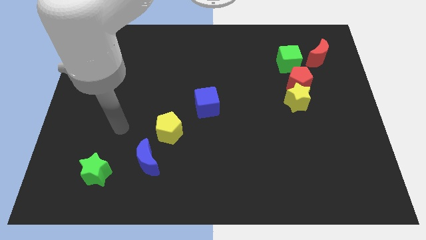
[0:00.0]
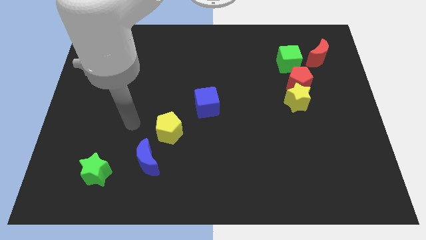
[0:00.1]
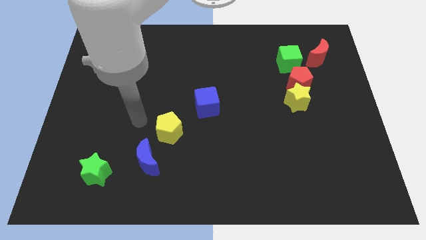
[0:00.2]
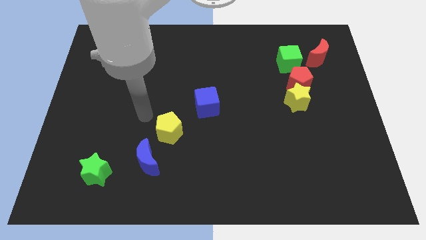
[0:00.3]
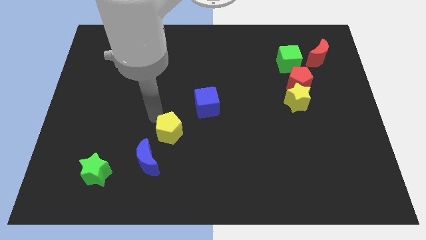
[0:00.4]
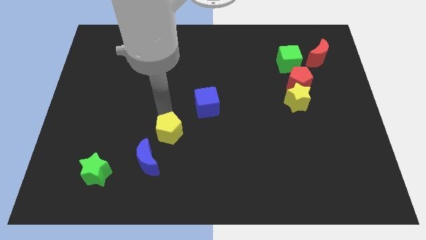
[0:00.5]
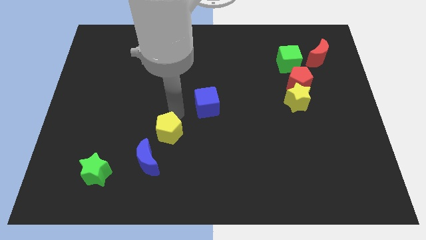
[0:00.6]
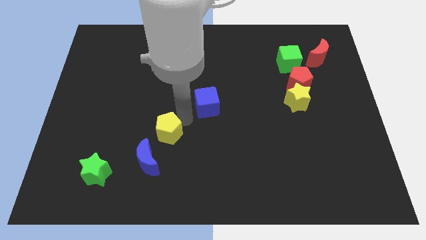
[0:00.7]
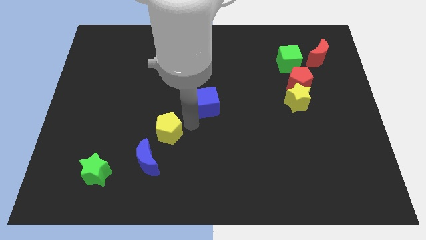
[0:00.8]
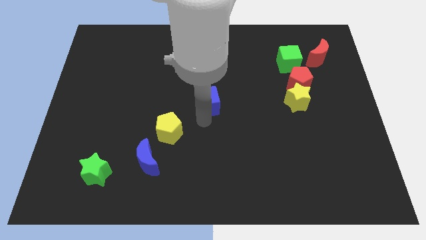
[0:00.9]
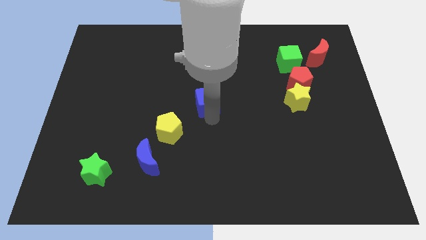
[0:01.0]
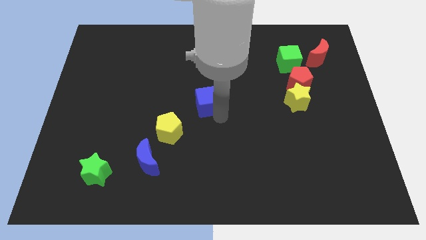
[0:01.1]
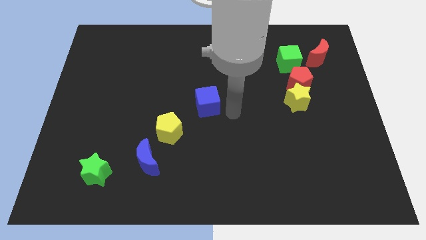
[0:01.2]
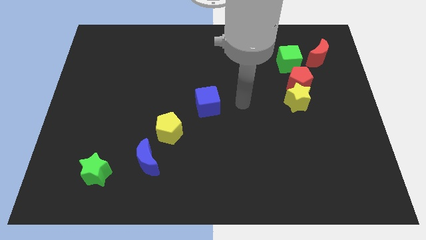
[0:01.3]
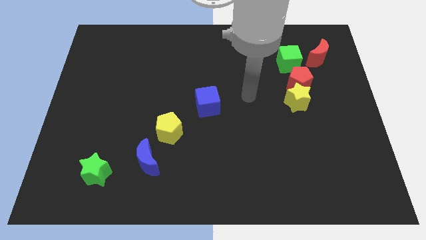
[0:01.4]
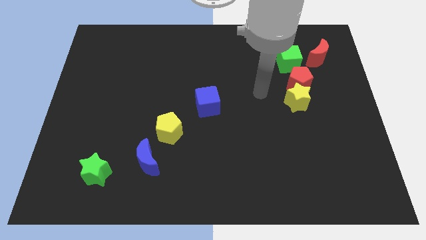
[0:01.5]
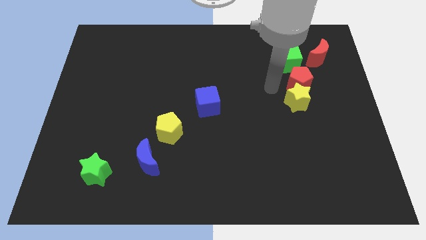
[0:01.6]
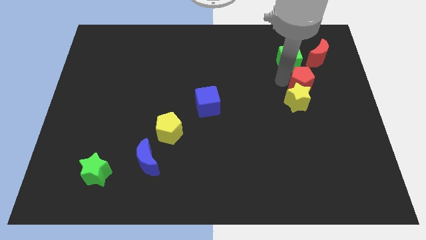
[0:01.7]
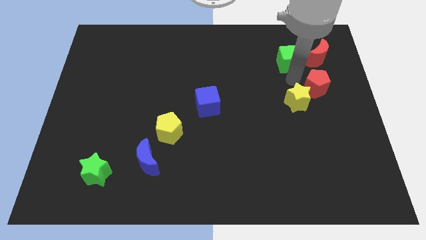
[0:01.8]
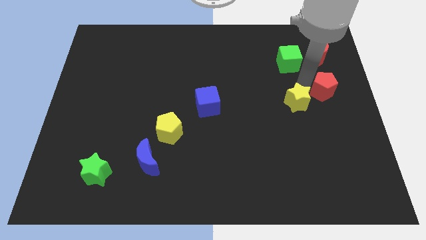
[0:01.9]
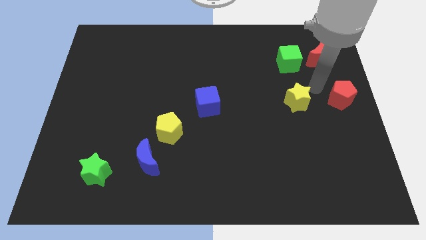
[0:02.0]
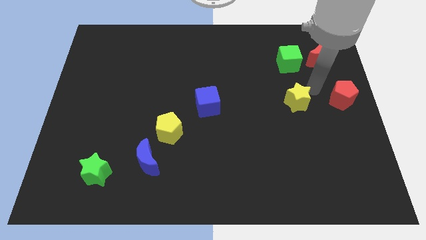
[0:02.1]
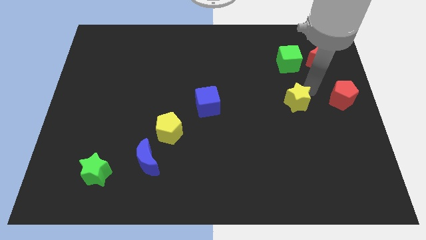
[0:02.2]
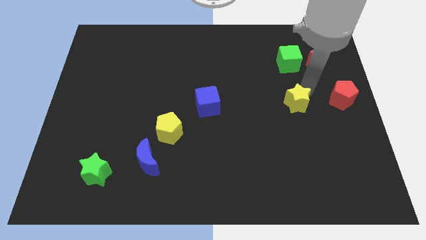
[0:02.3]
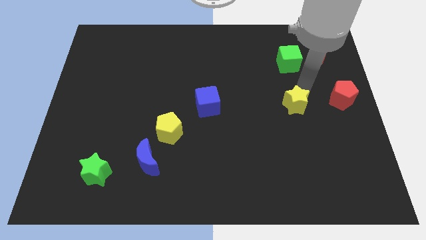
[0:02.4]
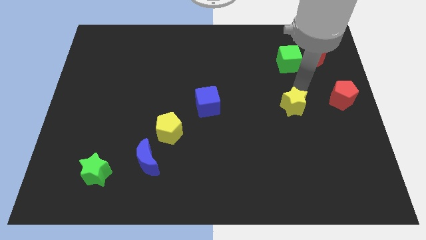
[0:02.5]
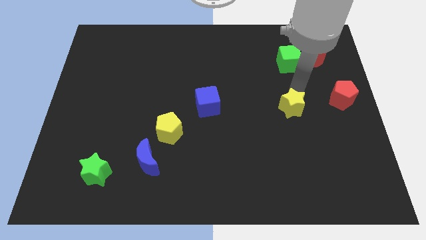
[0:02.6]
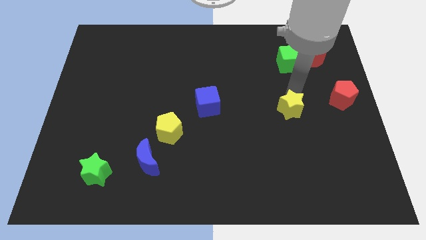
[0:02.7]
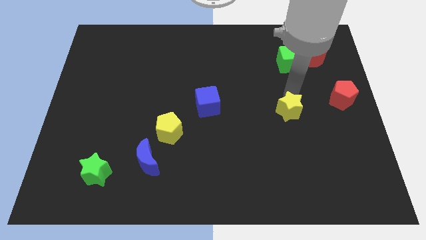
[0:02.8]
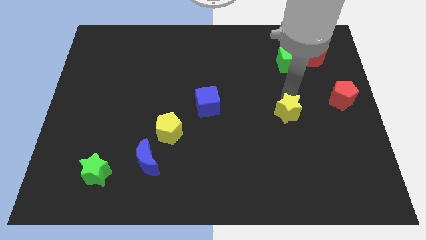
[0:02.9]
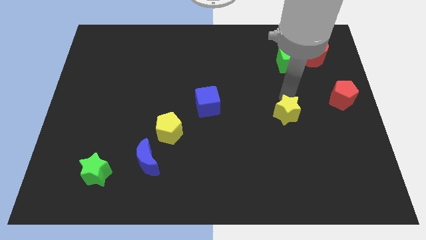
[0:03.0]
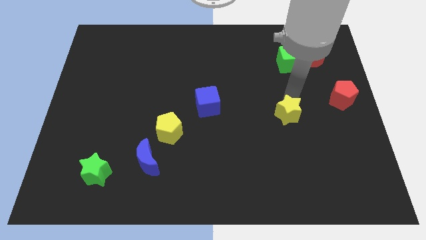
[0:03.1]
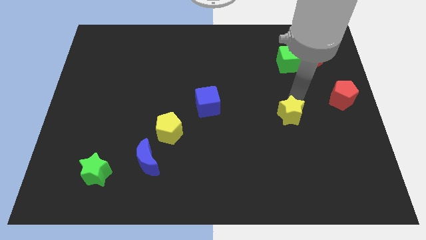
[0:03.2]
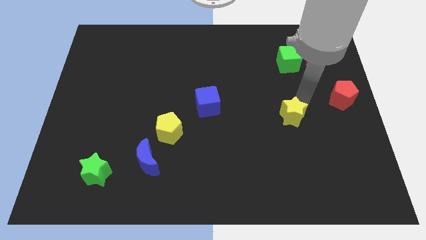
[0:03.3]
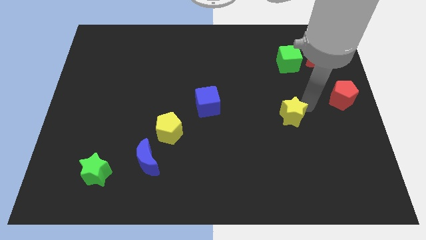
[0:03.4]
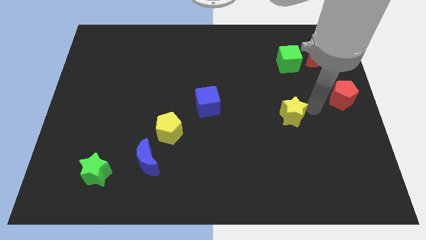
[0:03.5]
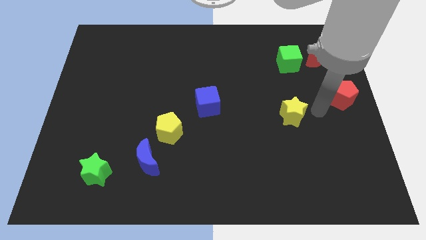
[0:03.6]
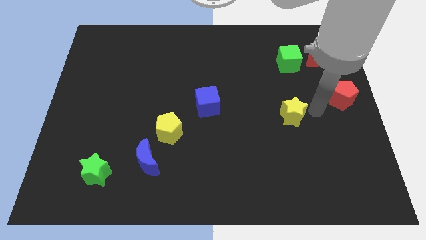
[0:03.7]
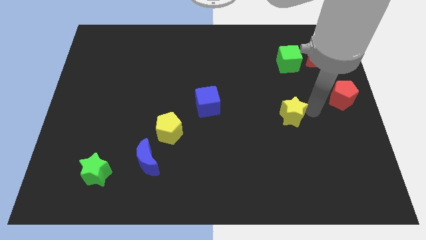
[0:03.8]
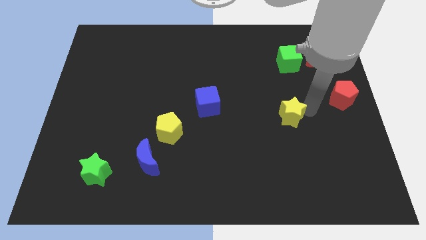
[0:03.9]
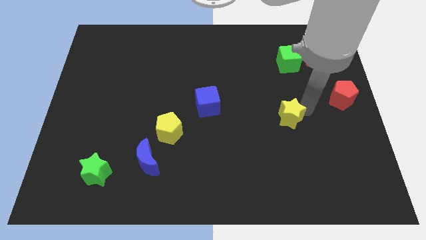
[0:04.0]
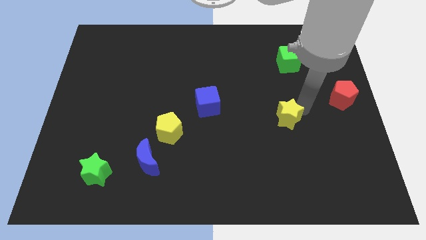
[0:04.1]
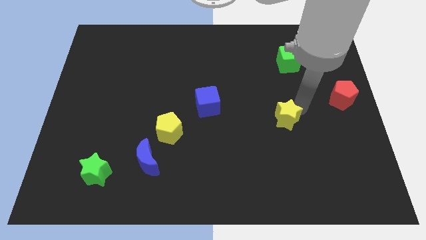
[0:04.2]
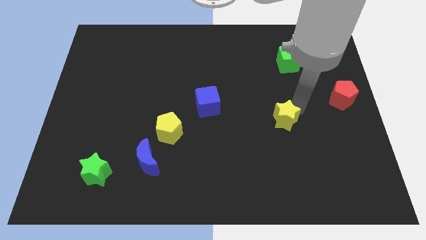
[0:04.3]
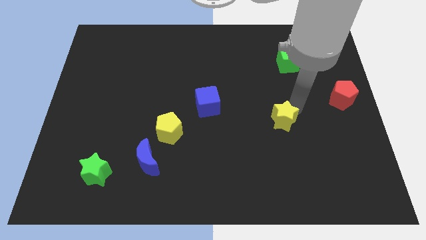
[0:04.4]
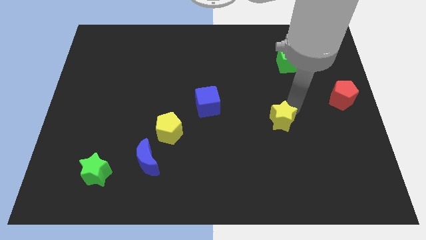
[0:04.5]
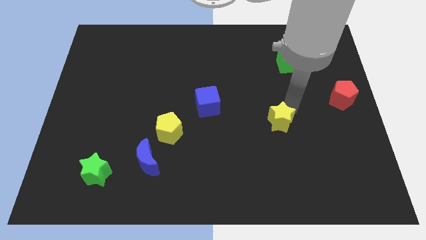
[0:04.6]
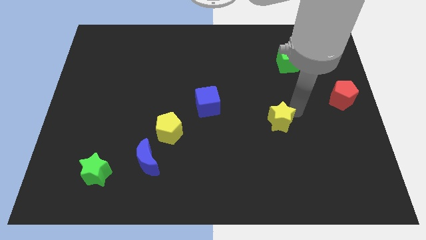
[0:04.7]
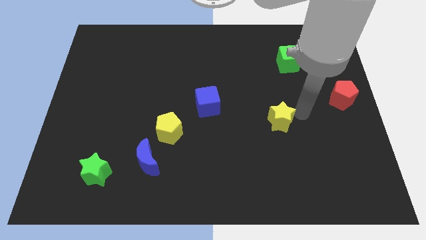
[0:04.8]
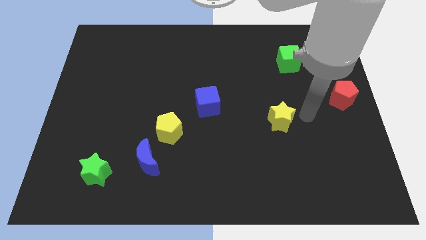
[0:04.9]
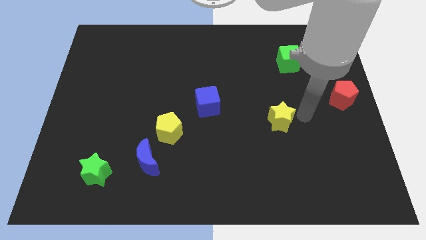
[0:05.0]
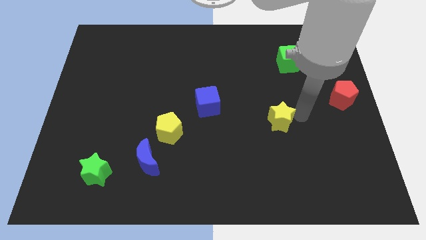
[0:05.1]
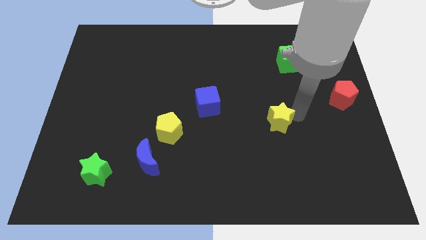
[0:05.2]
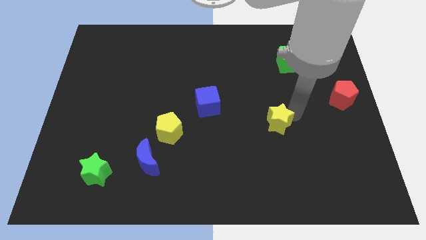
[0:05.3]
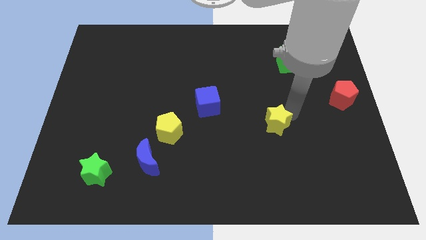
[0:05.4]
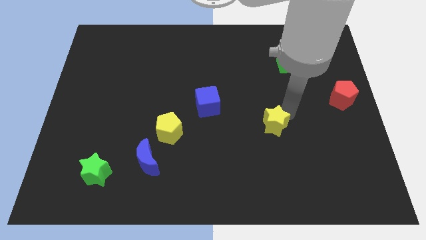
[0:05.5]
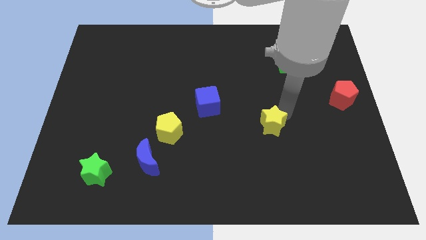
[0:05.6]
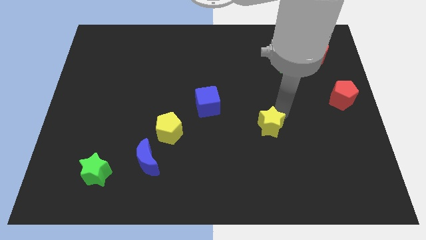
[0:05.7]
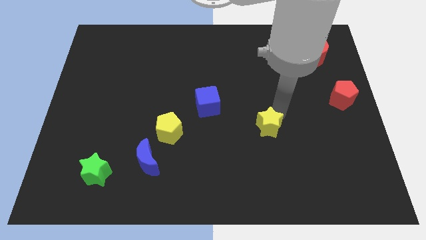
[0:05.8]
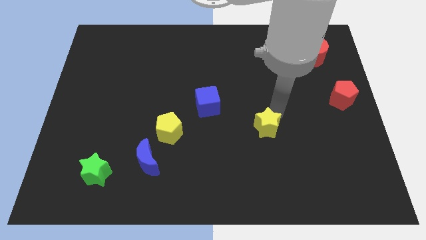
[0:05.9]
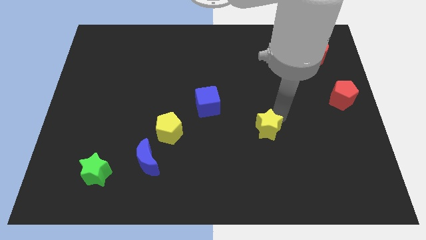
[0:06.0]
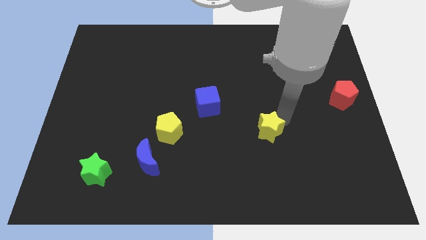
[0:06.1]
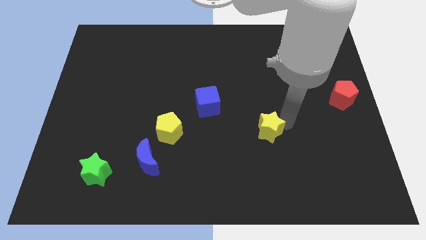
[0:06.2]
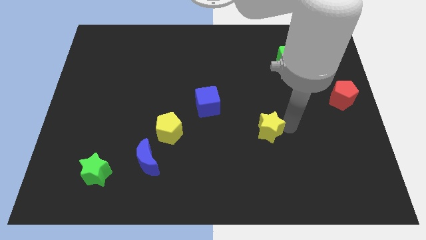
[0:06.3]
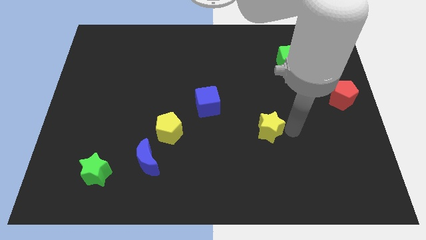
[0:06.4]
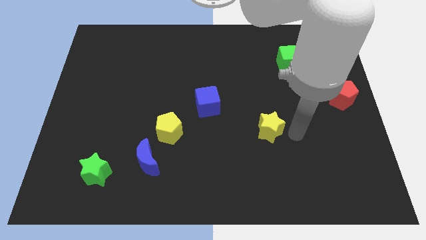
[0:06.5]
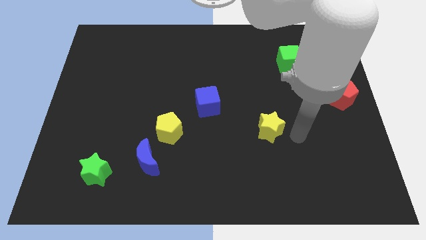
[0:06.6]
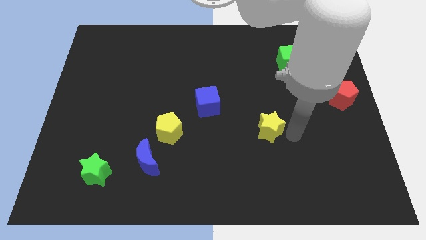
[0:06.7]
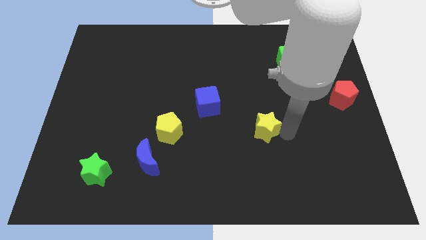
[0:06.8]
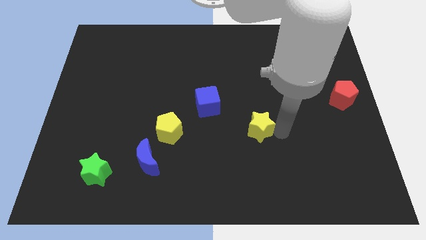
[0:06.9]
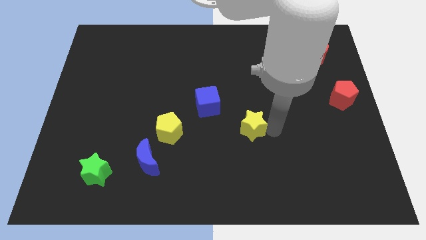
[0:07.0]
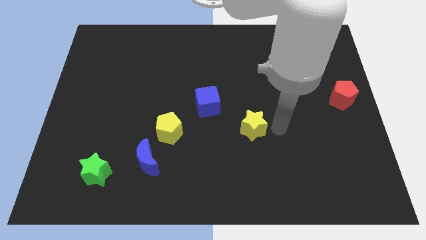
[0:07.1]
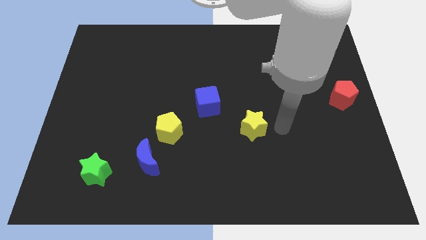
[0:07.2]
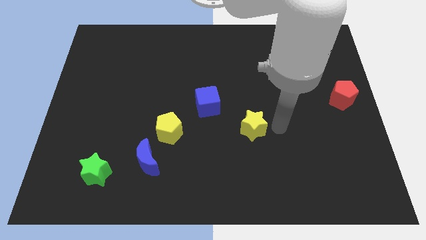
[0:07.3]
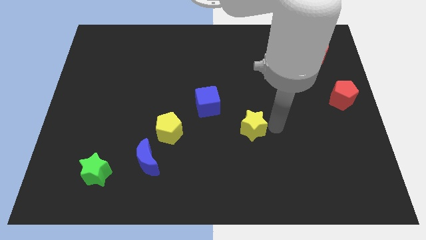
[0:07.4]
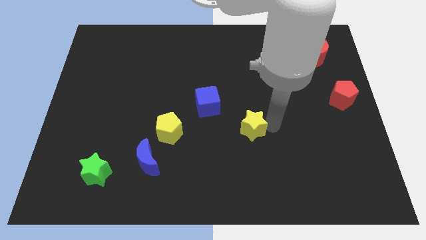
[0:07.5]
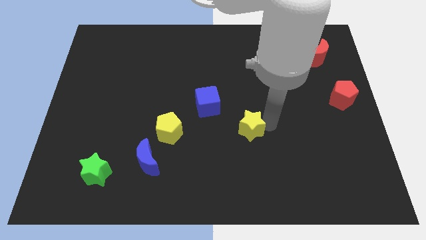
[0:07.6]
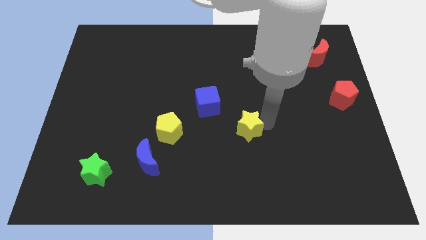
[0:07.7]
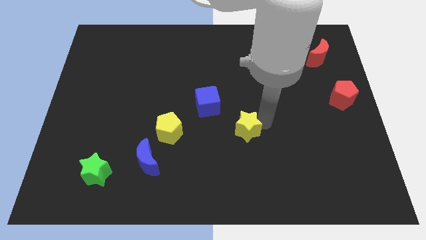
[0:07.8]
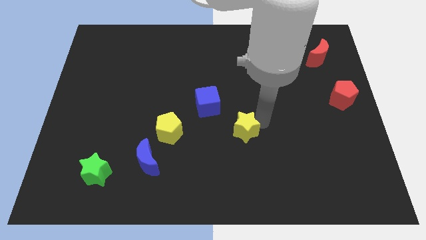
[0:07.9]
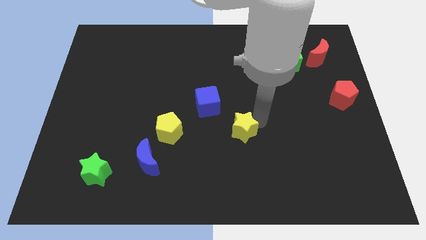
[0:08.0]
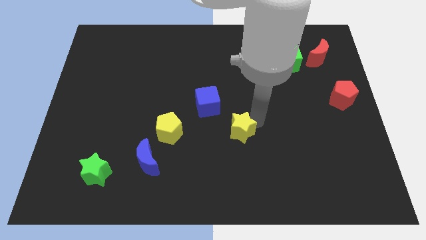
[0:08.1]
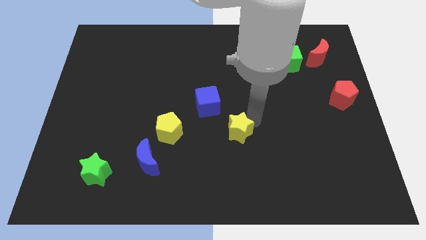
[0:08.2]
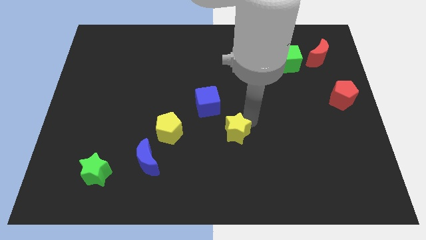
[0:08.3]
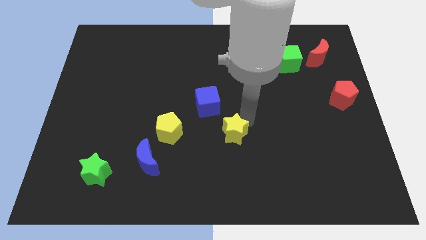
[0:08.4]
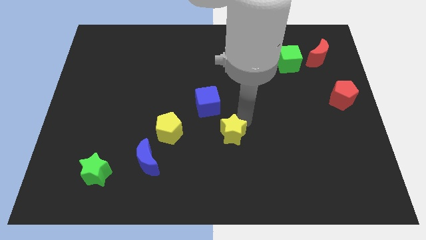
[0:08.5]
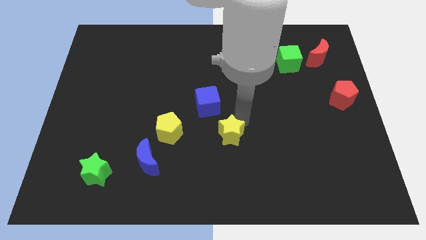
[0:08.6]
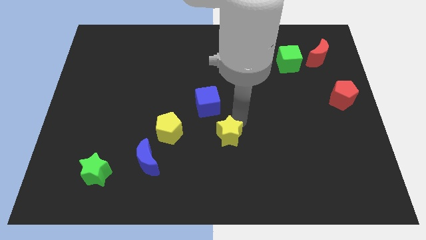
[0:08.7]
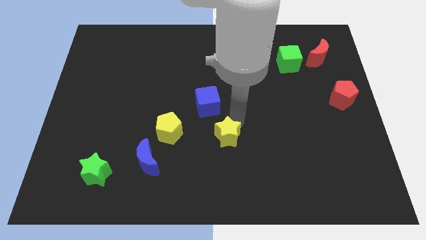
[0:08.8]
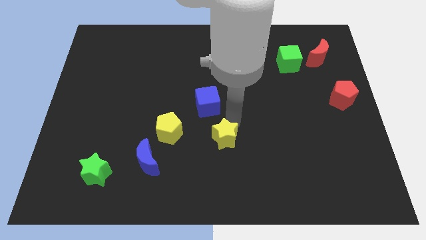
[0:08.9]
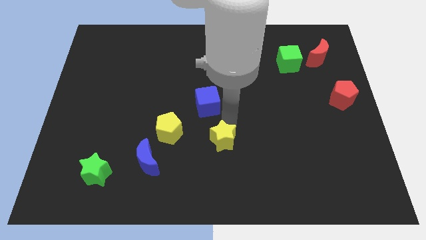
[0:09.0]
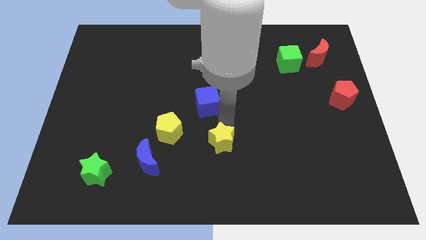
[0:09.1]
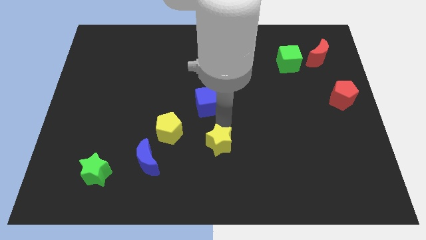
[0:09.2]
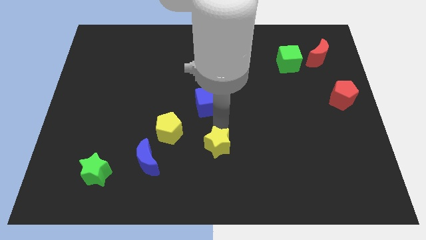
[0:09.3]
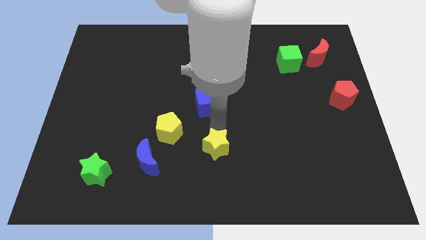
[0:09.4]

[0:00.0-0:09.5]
move the yellow star to the bottom right side of the yellow pentagon
